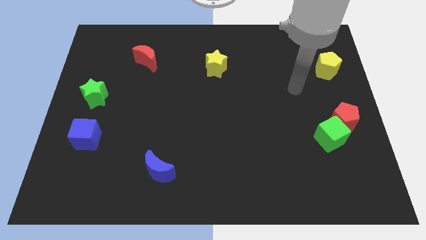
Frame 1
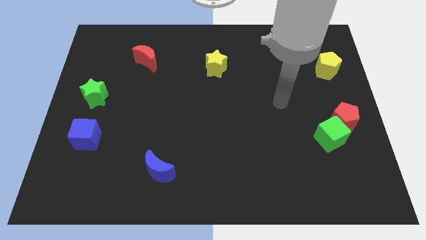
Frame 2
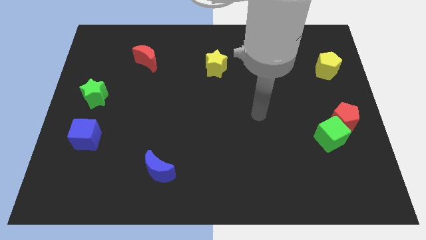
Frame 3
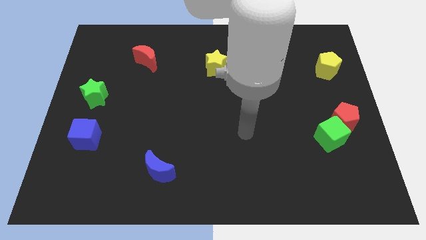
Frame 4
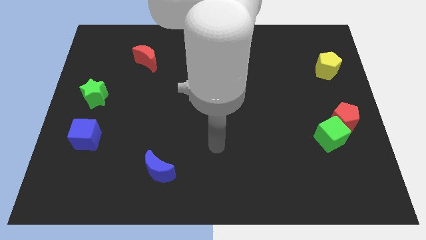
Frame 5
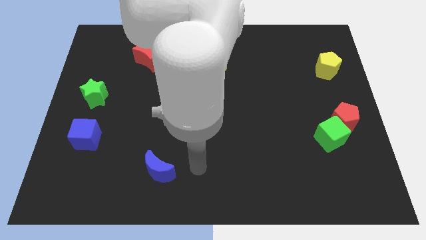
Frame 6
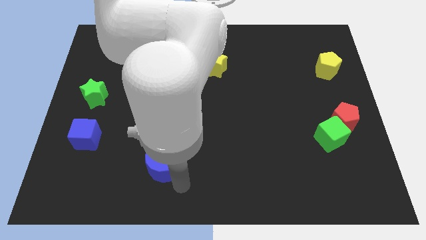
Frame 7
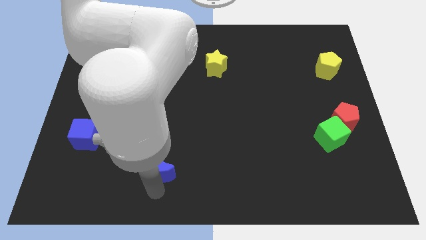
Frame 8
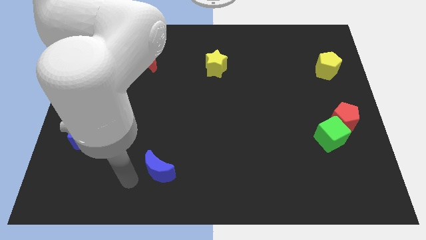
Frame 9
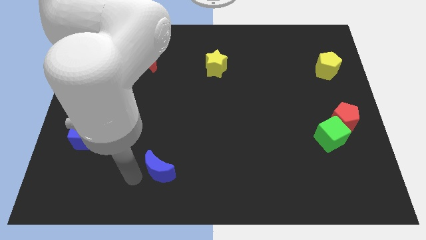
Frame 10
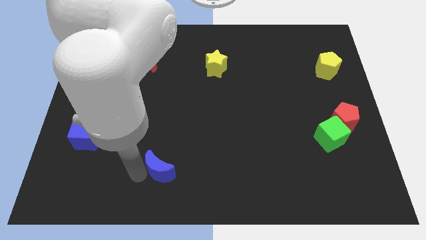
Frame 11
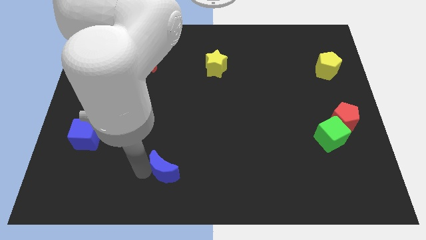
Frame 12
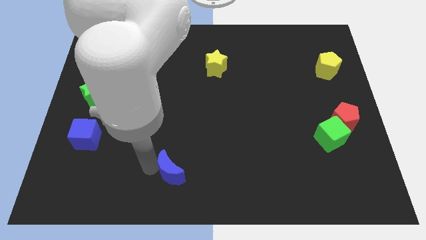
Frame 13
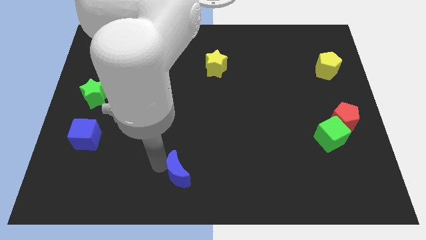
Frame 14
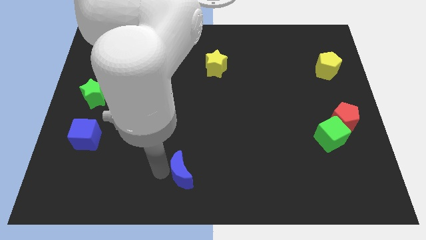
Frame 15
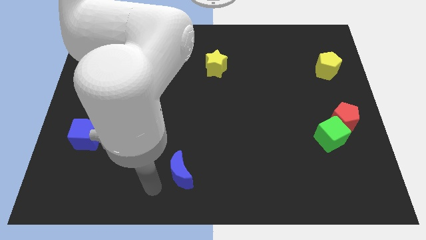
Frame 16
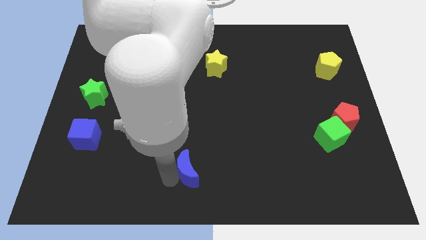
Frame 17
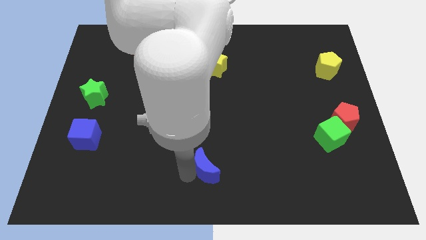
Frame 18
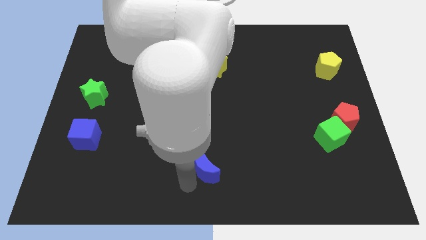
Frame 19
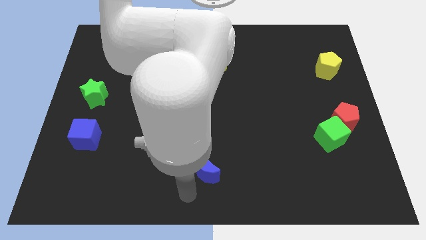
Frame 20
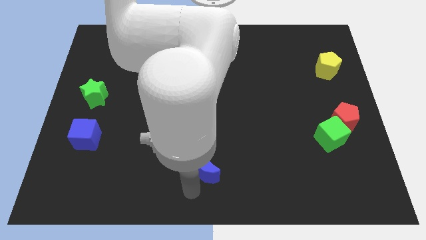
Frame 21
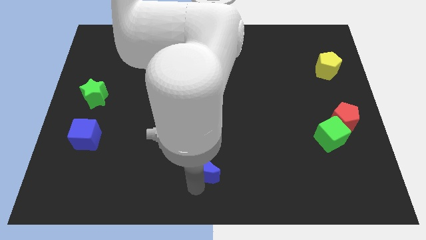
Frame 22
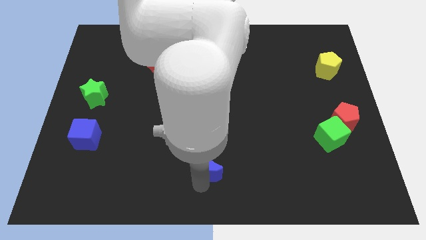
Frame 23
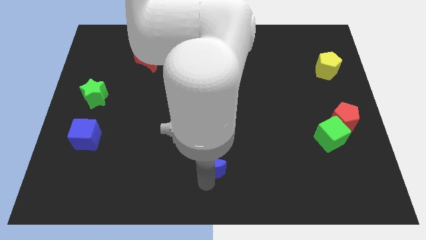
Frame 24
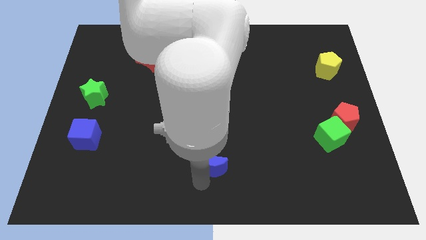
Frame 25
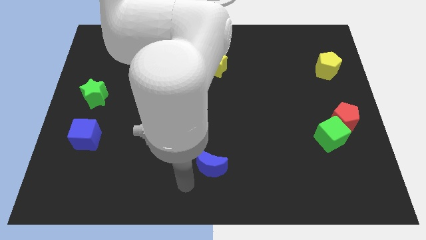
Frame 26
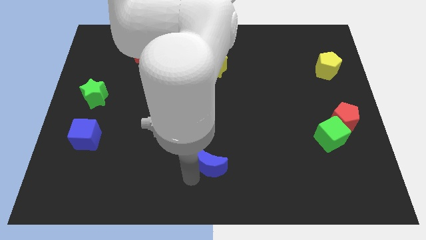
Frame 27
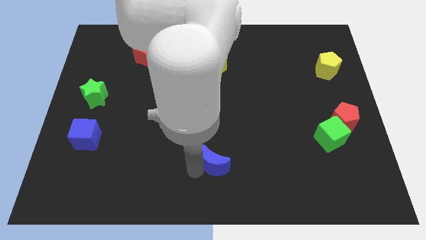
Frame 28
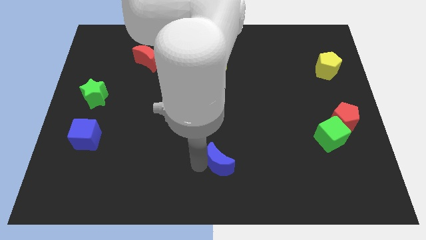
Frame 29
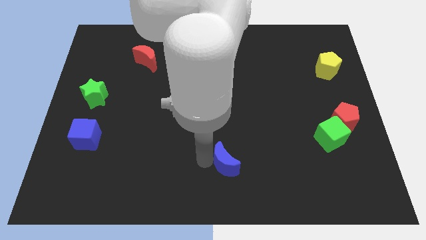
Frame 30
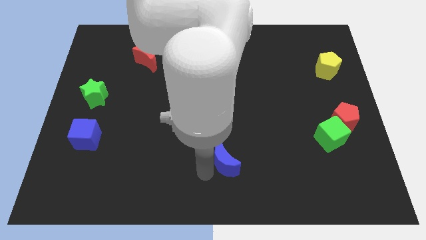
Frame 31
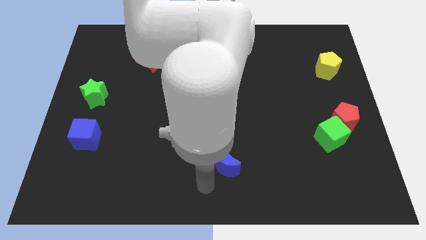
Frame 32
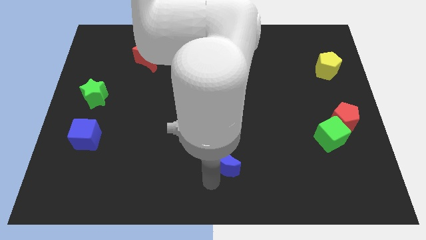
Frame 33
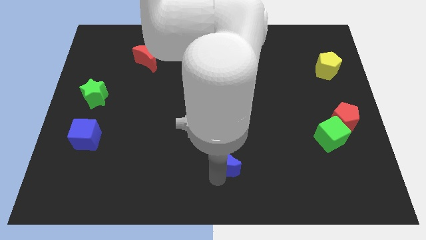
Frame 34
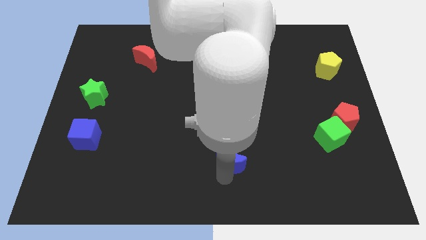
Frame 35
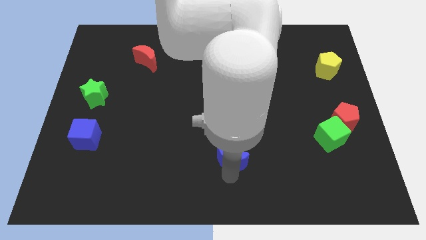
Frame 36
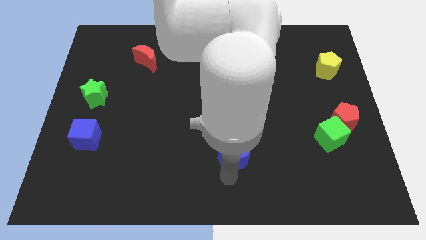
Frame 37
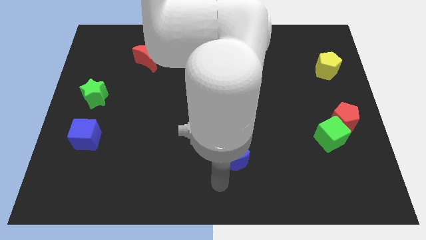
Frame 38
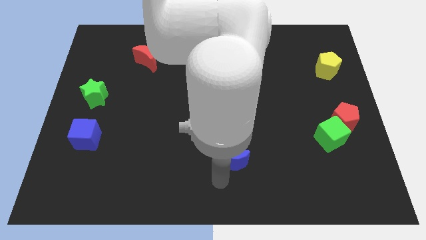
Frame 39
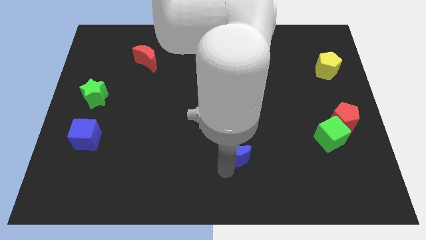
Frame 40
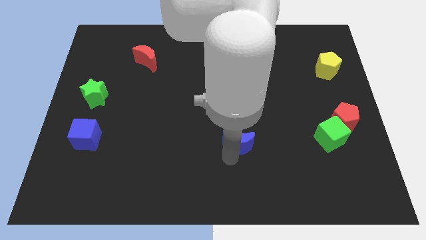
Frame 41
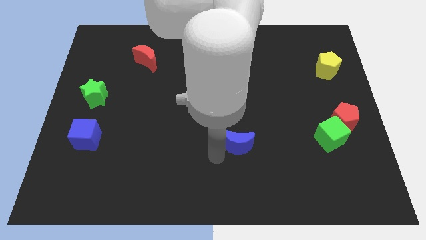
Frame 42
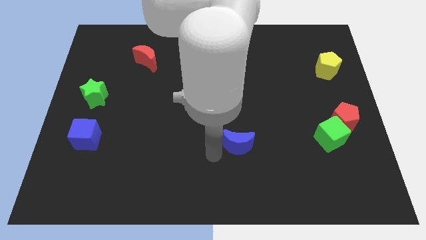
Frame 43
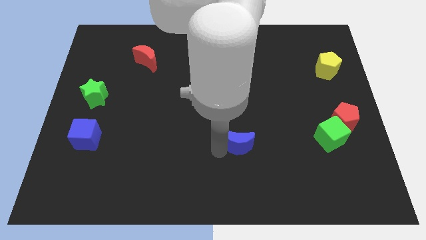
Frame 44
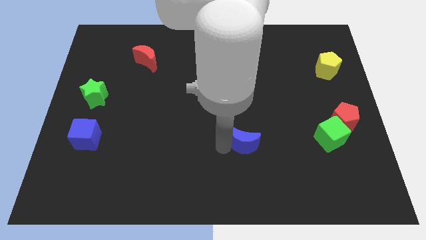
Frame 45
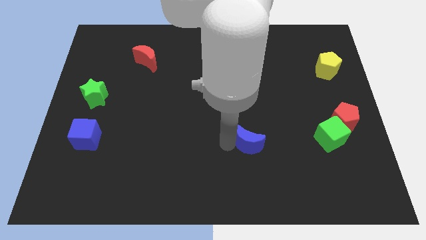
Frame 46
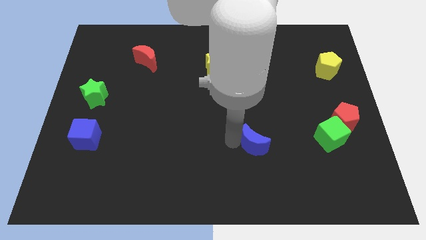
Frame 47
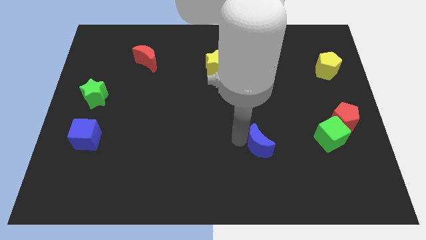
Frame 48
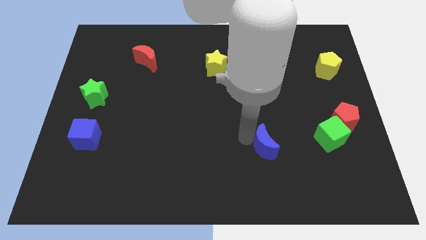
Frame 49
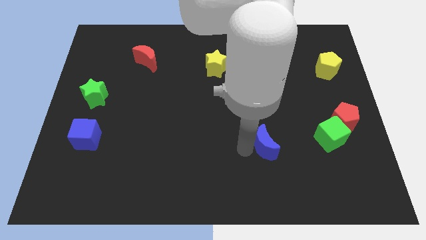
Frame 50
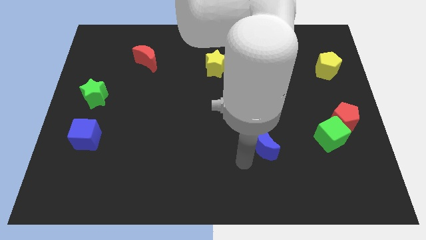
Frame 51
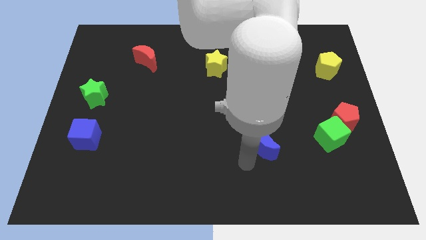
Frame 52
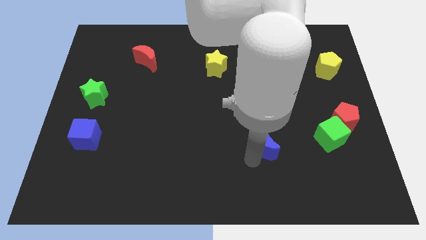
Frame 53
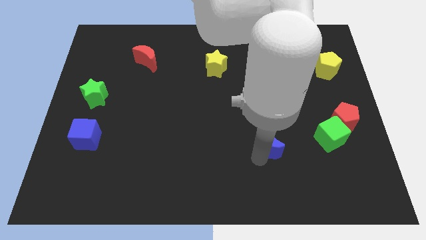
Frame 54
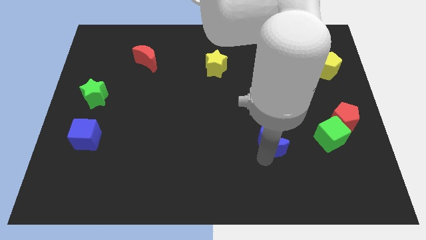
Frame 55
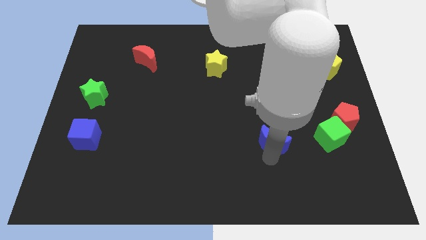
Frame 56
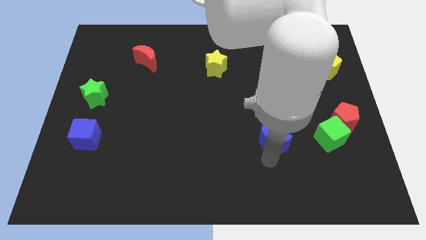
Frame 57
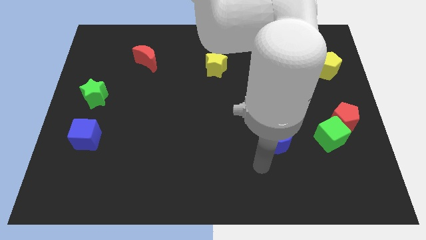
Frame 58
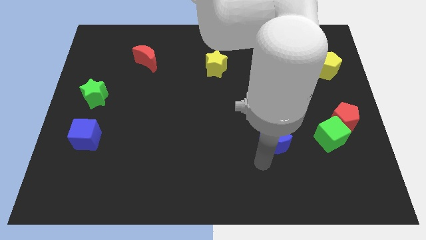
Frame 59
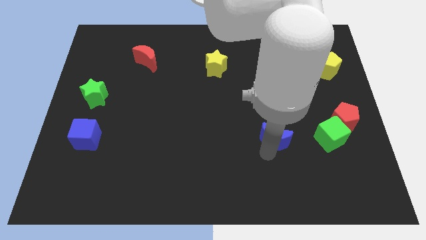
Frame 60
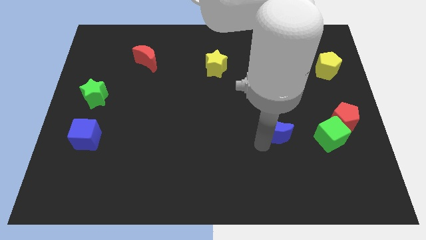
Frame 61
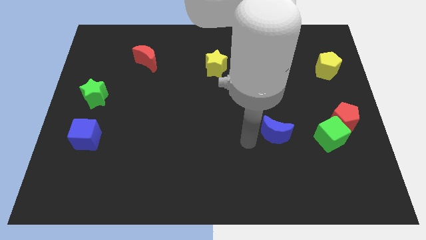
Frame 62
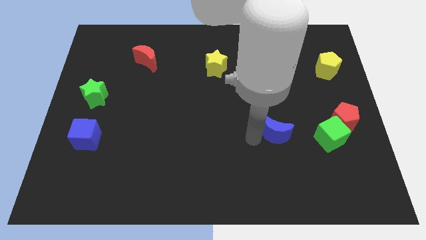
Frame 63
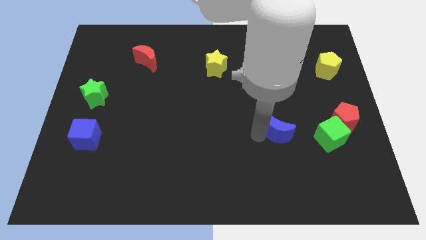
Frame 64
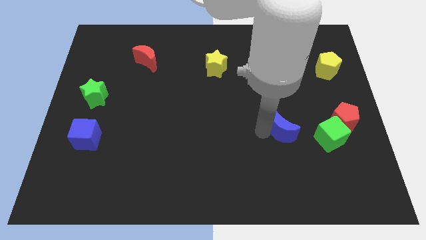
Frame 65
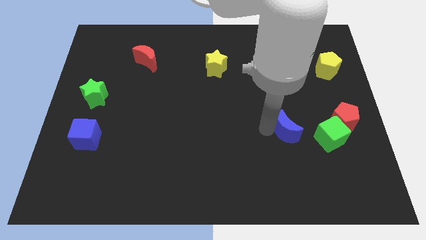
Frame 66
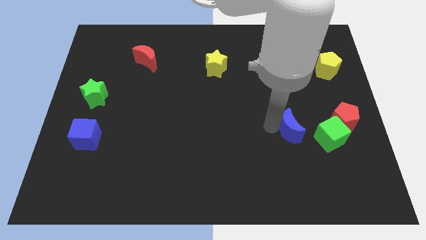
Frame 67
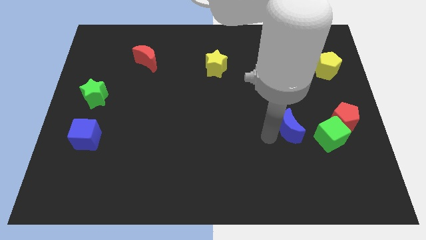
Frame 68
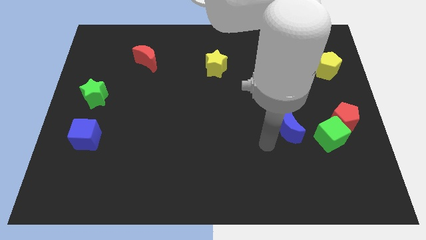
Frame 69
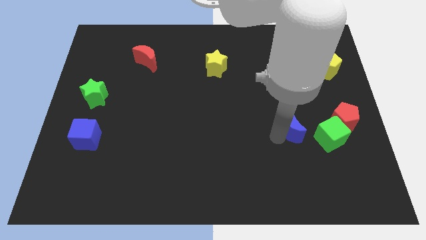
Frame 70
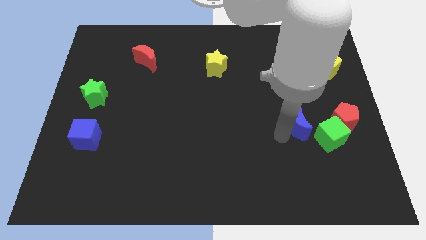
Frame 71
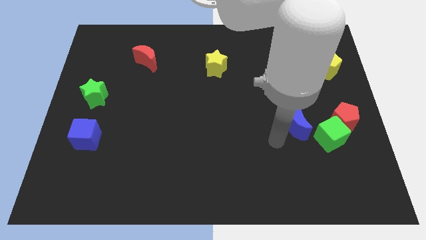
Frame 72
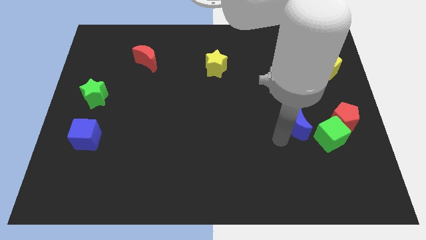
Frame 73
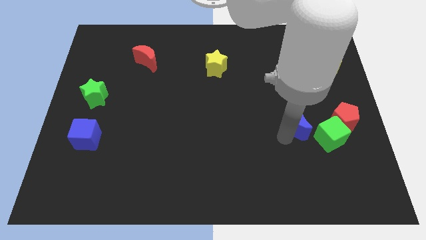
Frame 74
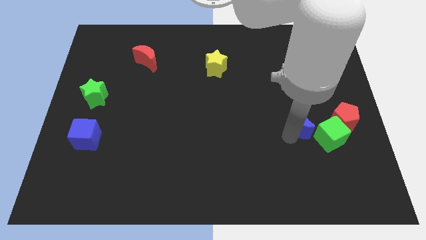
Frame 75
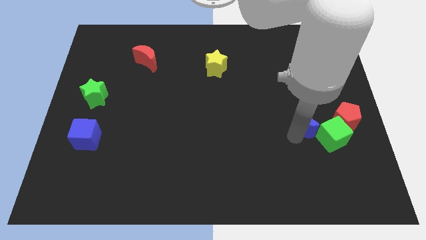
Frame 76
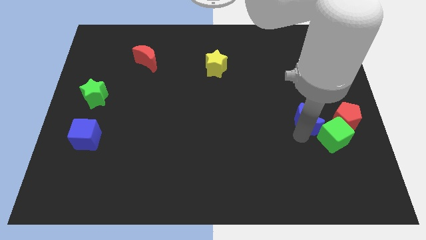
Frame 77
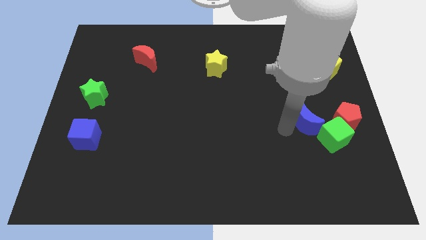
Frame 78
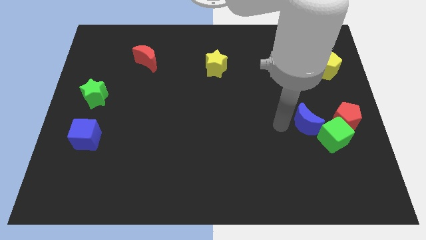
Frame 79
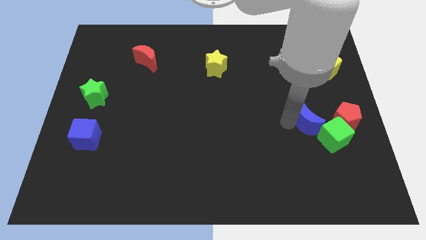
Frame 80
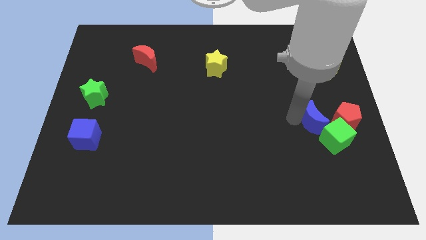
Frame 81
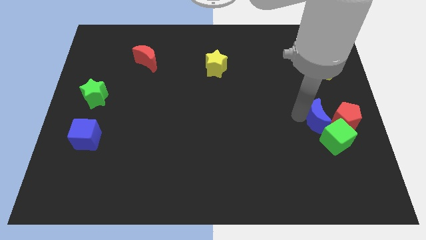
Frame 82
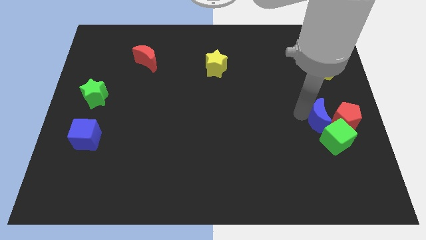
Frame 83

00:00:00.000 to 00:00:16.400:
move the blue moon next to the red pentagon
